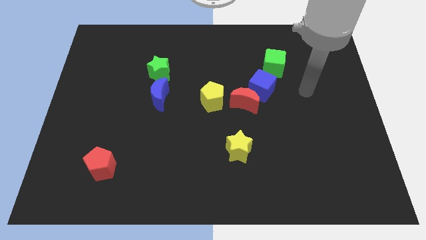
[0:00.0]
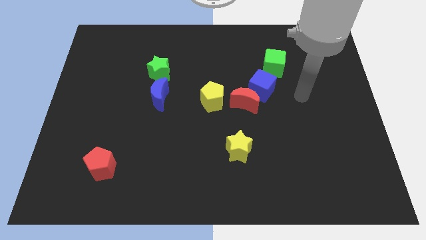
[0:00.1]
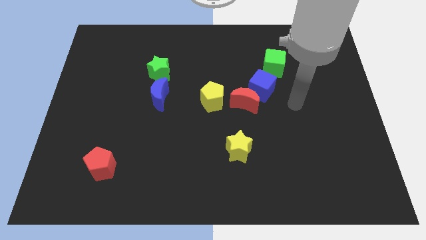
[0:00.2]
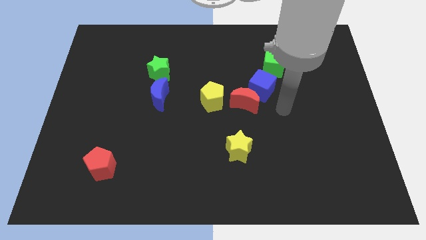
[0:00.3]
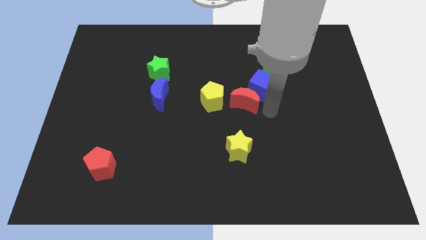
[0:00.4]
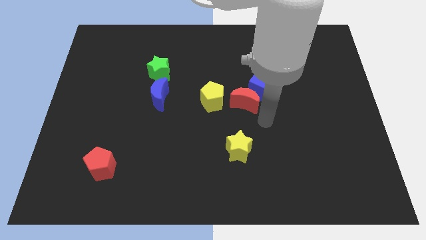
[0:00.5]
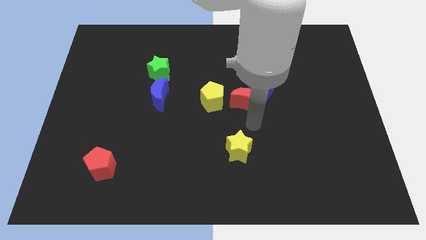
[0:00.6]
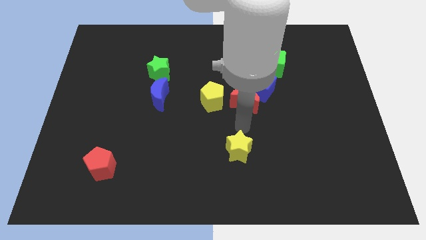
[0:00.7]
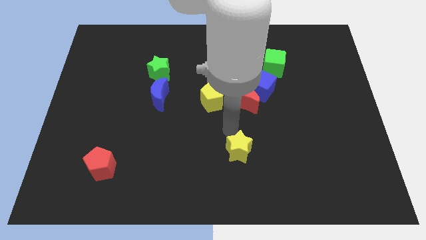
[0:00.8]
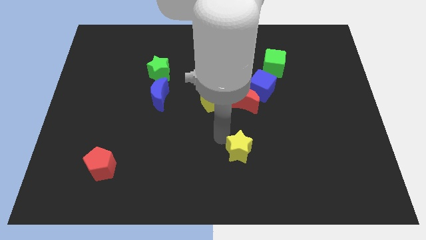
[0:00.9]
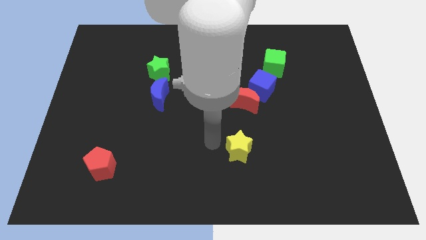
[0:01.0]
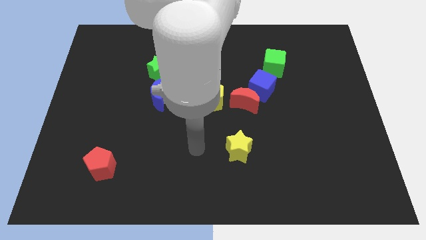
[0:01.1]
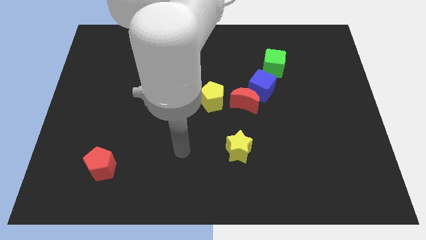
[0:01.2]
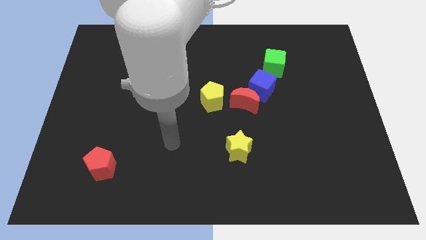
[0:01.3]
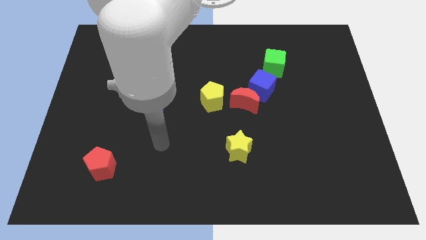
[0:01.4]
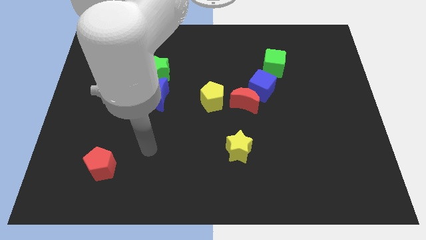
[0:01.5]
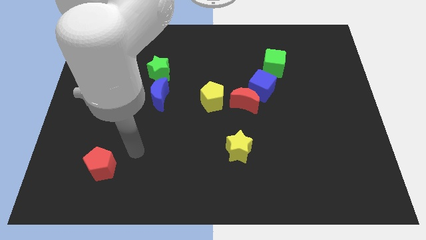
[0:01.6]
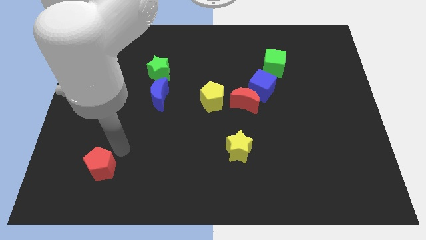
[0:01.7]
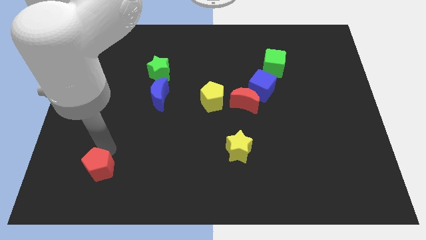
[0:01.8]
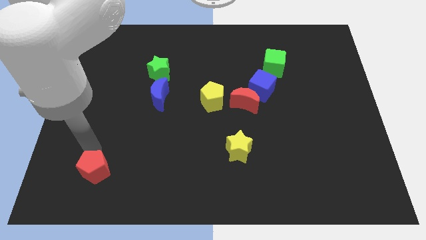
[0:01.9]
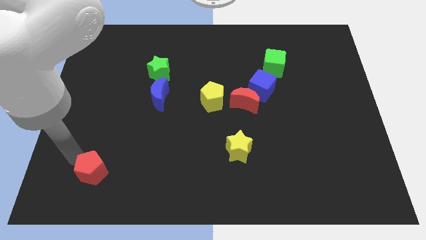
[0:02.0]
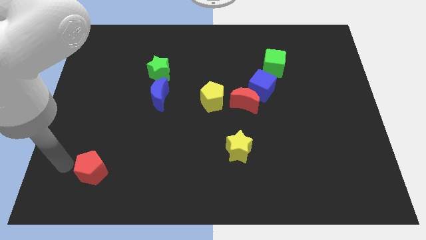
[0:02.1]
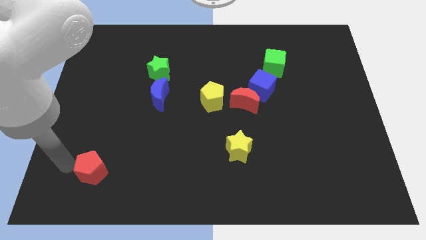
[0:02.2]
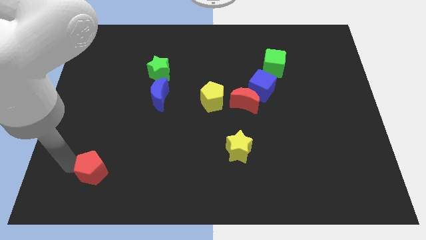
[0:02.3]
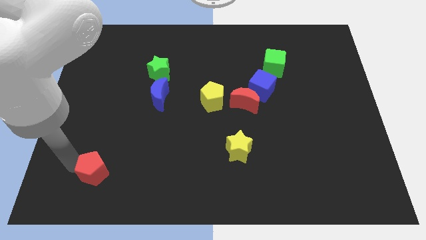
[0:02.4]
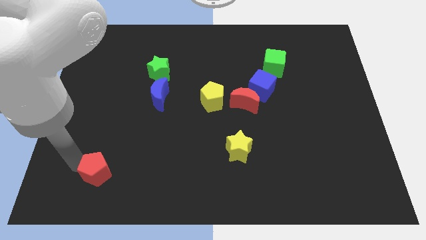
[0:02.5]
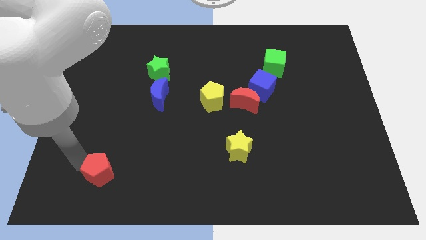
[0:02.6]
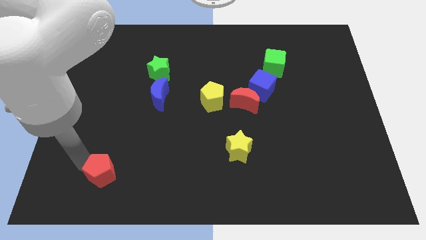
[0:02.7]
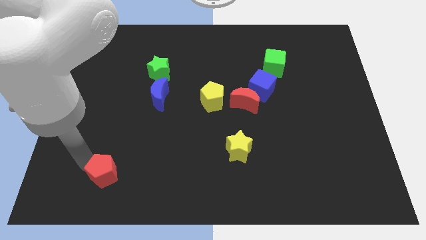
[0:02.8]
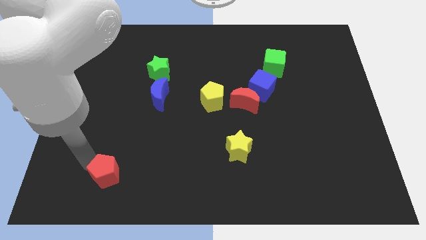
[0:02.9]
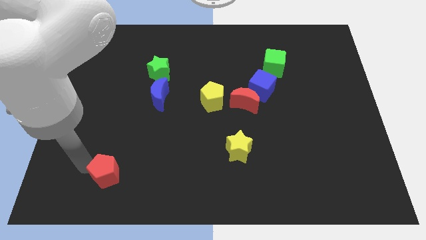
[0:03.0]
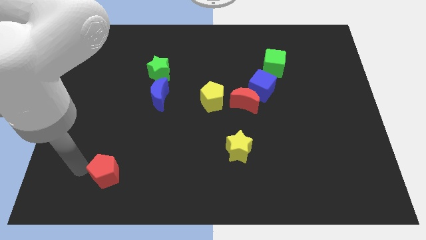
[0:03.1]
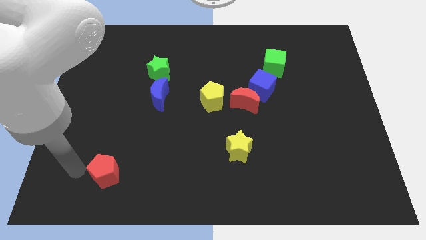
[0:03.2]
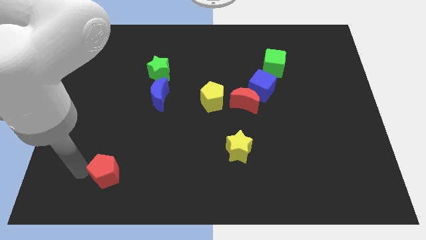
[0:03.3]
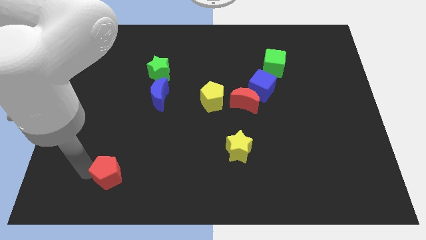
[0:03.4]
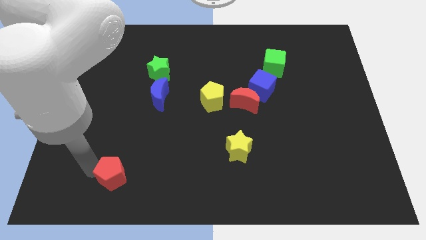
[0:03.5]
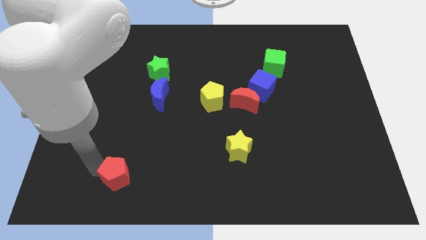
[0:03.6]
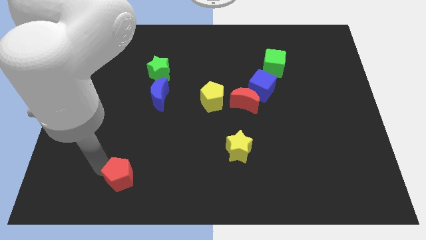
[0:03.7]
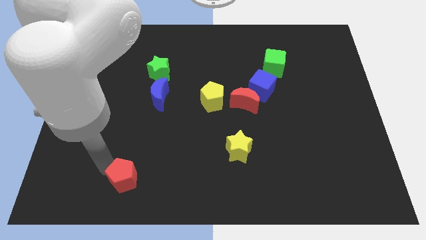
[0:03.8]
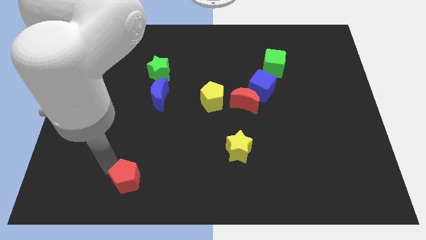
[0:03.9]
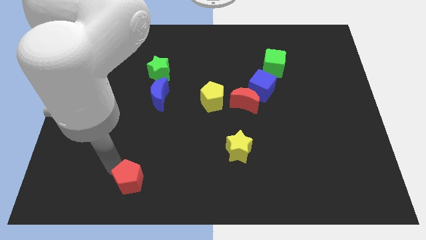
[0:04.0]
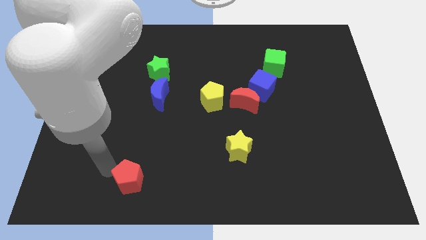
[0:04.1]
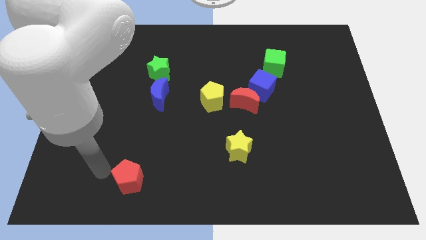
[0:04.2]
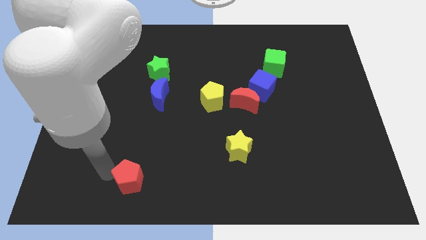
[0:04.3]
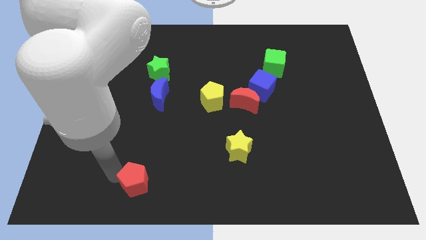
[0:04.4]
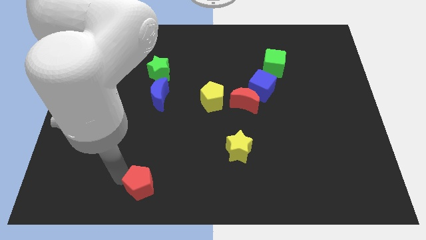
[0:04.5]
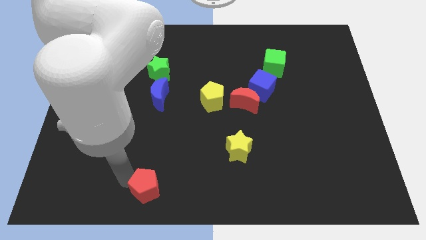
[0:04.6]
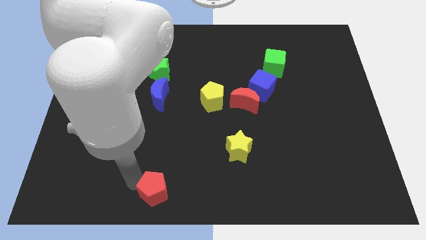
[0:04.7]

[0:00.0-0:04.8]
push the red pentagon to the bottom

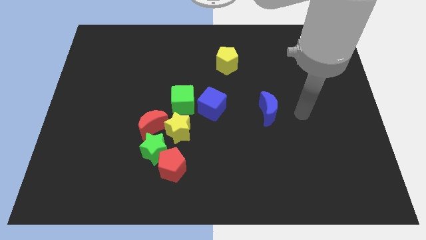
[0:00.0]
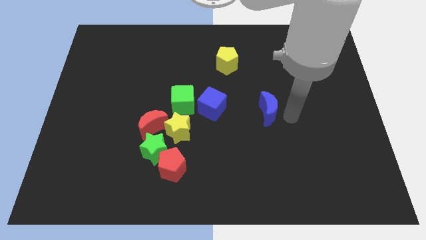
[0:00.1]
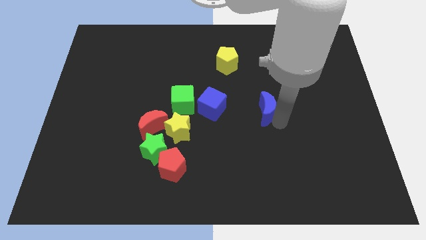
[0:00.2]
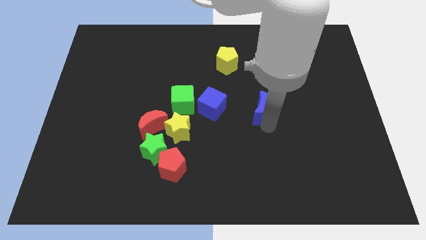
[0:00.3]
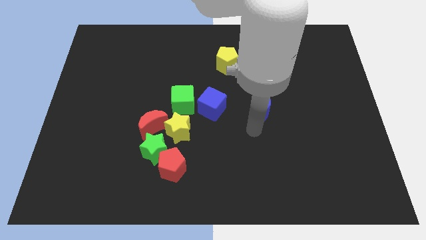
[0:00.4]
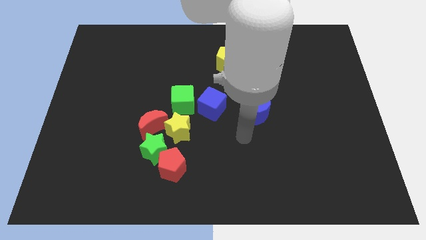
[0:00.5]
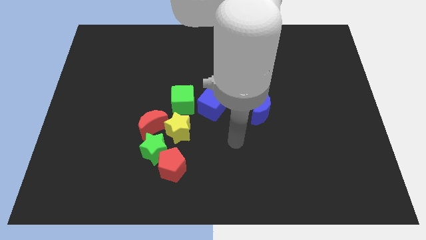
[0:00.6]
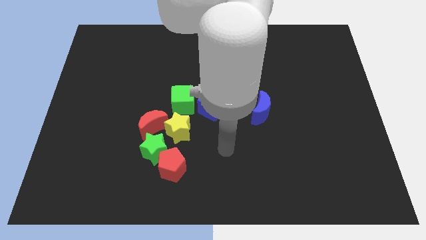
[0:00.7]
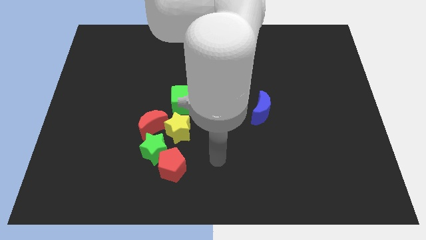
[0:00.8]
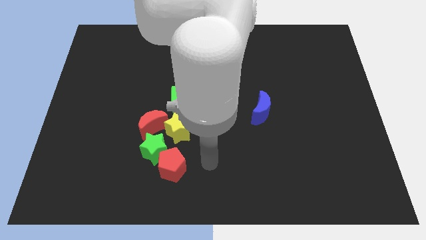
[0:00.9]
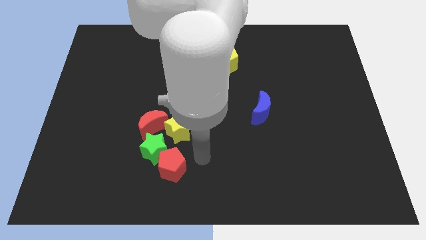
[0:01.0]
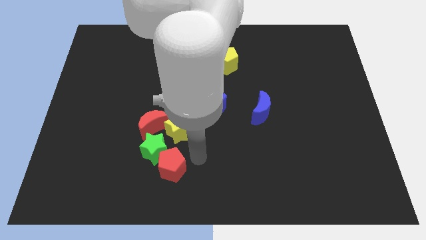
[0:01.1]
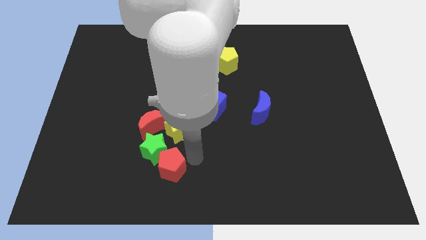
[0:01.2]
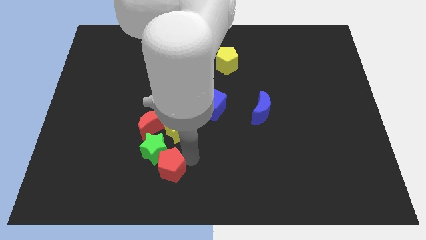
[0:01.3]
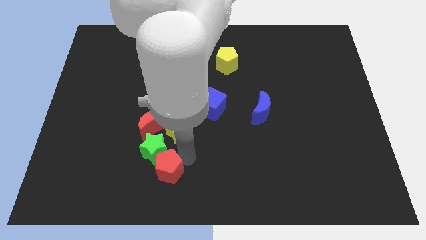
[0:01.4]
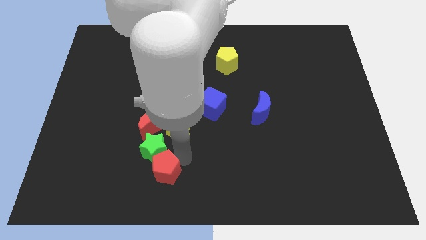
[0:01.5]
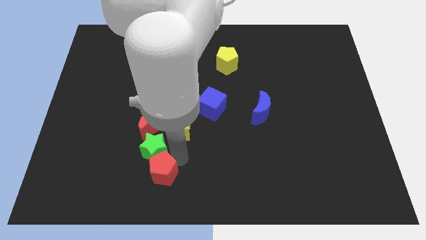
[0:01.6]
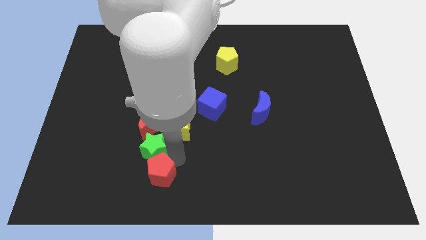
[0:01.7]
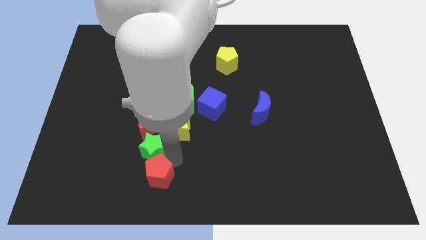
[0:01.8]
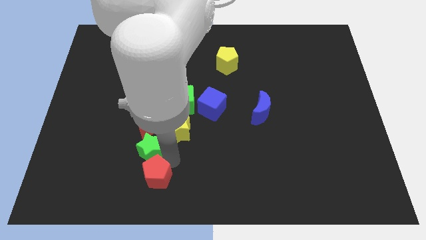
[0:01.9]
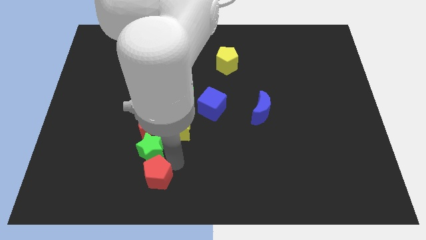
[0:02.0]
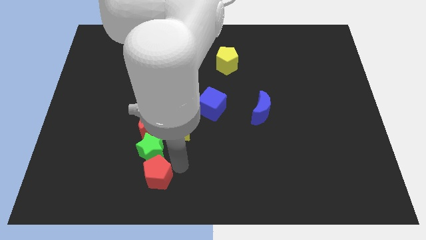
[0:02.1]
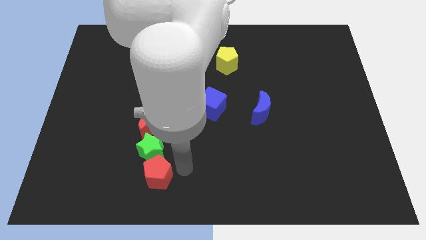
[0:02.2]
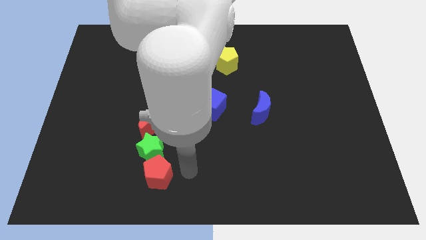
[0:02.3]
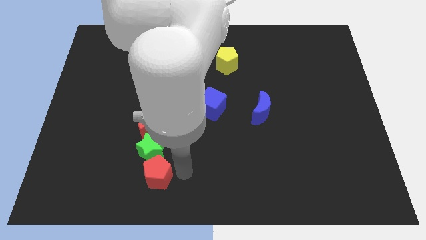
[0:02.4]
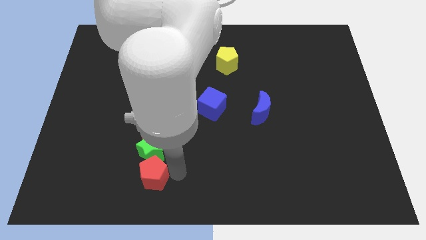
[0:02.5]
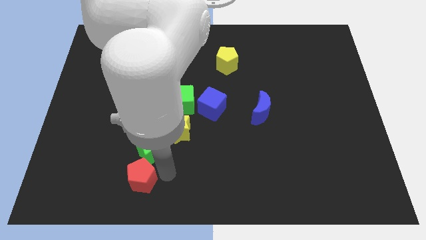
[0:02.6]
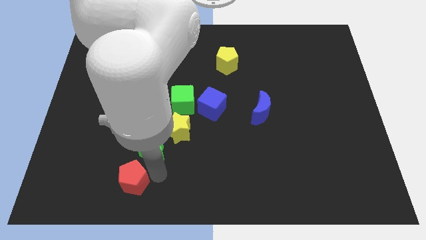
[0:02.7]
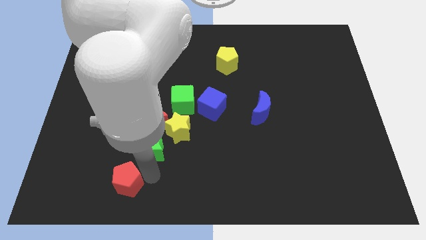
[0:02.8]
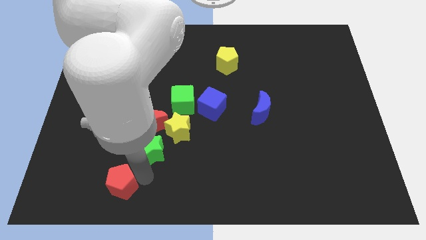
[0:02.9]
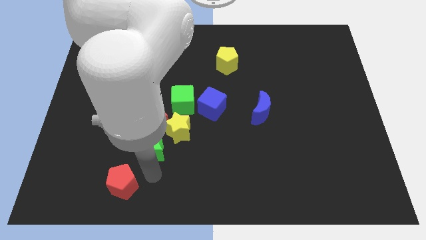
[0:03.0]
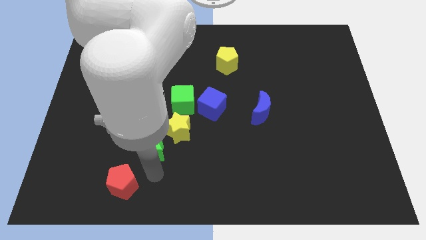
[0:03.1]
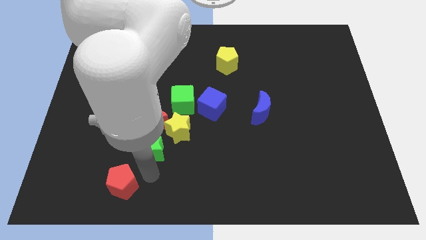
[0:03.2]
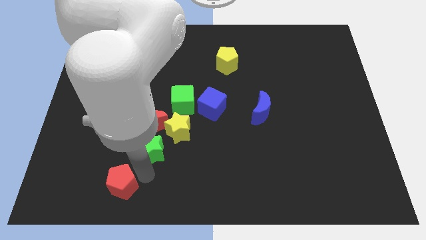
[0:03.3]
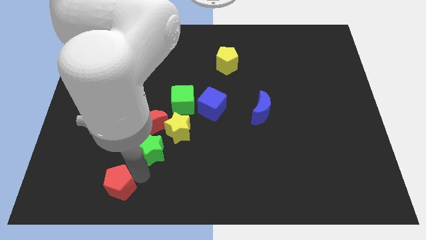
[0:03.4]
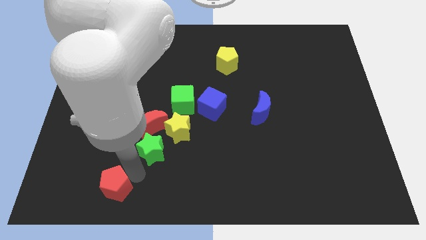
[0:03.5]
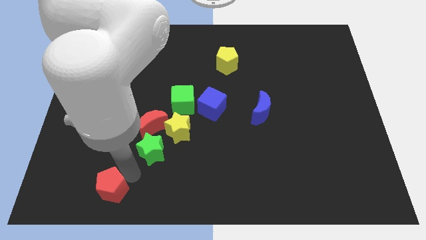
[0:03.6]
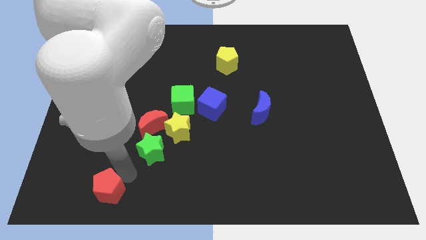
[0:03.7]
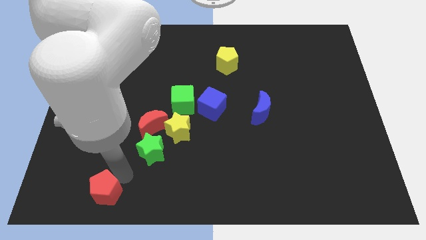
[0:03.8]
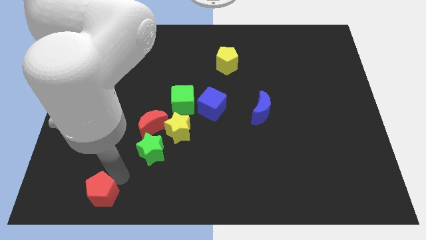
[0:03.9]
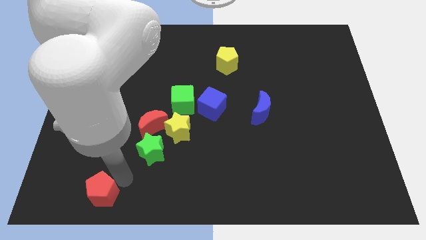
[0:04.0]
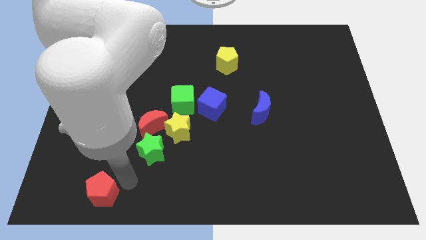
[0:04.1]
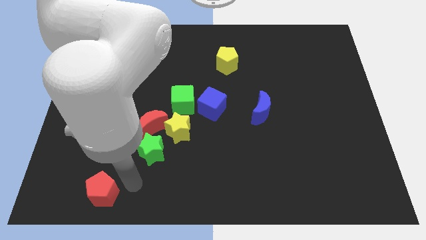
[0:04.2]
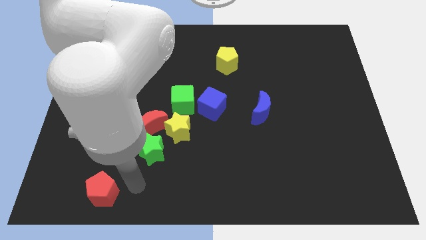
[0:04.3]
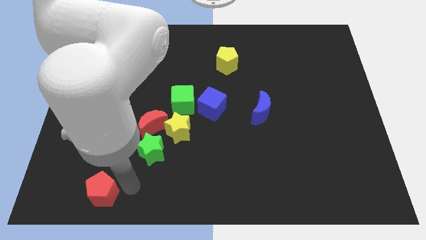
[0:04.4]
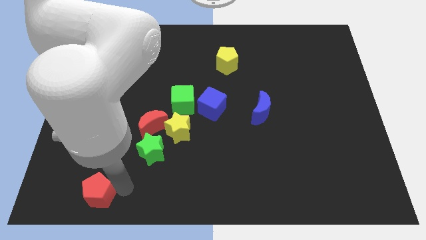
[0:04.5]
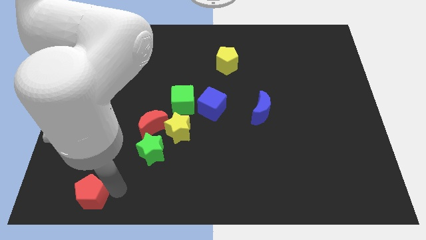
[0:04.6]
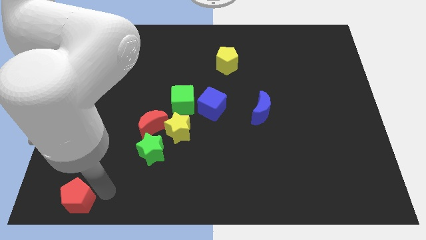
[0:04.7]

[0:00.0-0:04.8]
put the red pentagon to the bottom left corner
